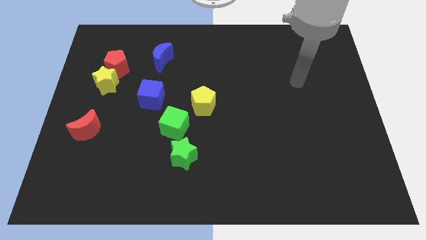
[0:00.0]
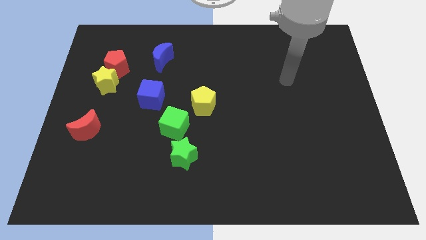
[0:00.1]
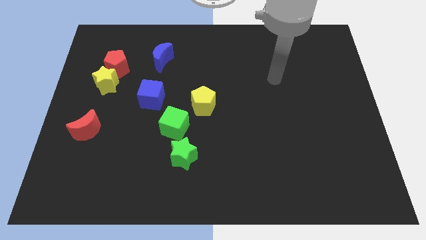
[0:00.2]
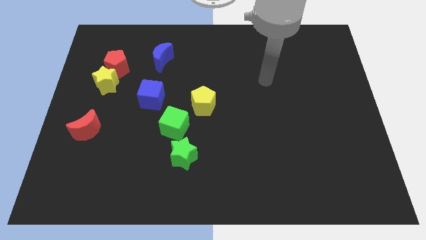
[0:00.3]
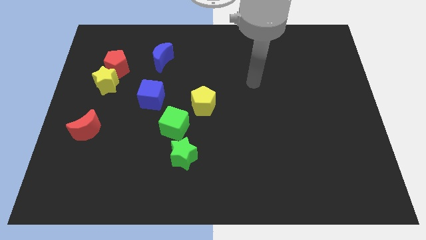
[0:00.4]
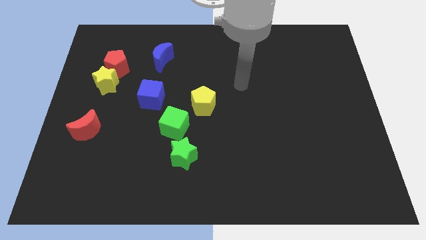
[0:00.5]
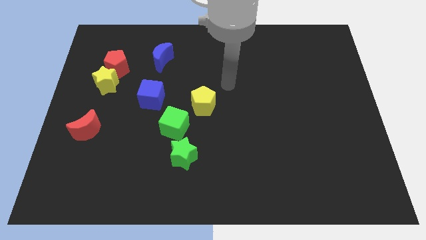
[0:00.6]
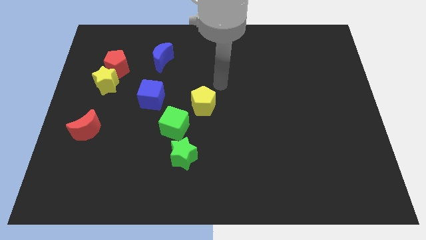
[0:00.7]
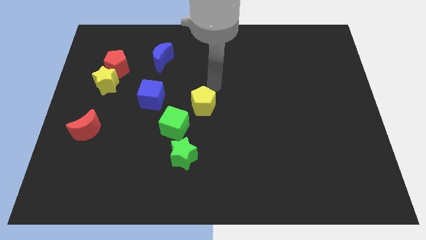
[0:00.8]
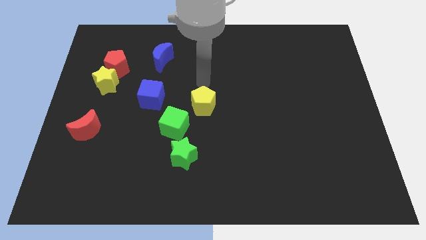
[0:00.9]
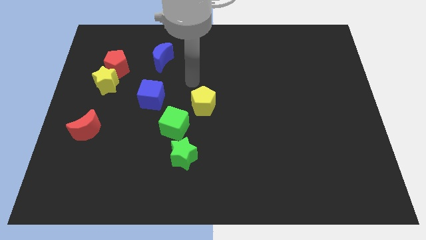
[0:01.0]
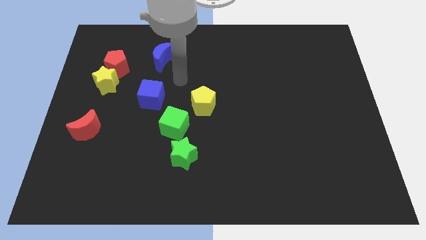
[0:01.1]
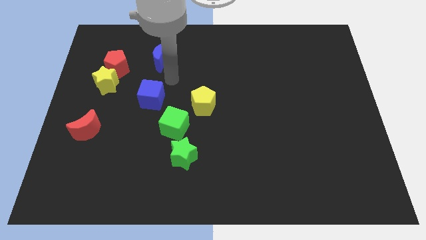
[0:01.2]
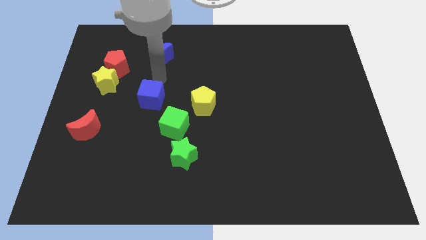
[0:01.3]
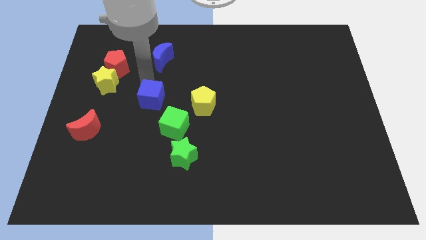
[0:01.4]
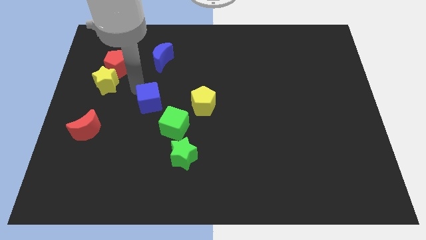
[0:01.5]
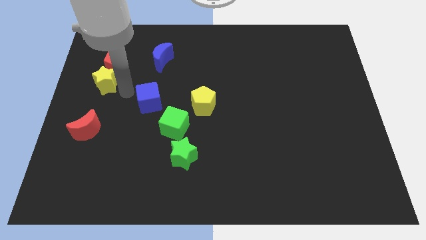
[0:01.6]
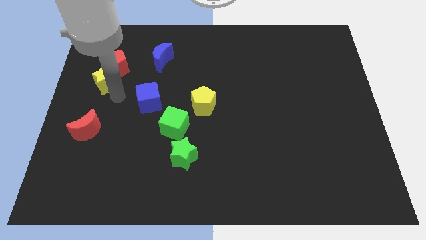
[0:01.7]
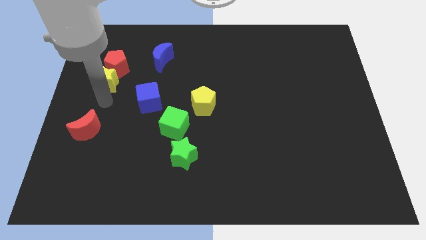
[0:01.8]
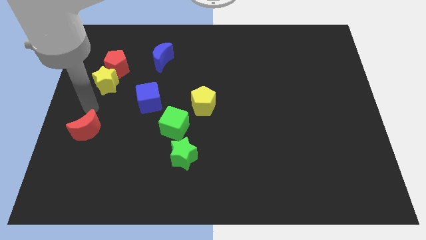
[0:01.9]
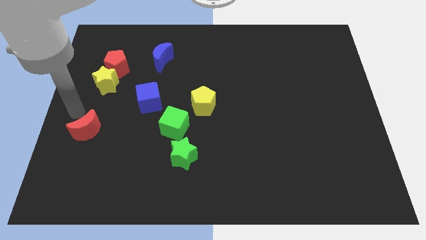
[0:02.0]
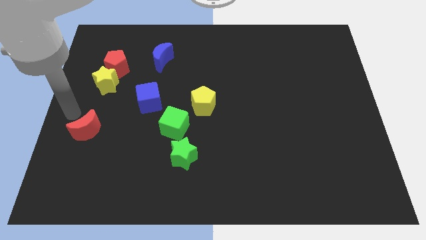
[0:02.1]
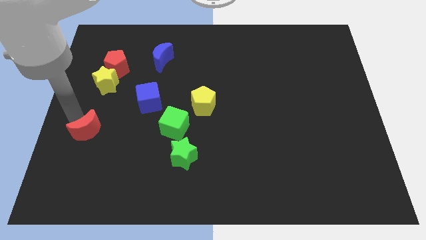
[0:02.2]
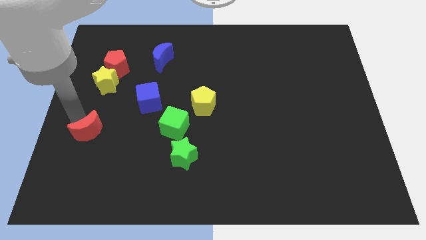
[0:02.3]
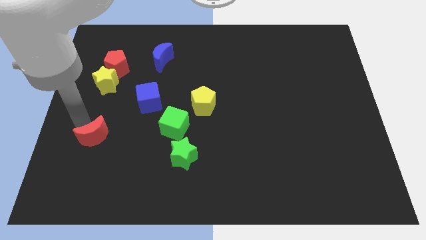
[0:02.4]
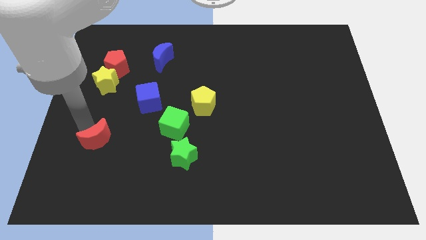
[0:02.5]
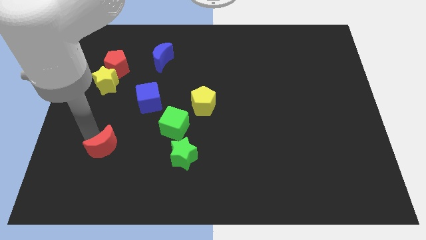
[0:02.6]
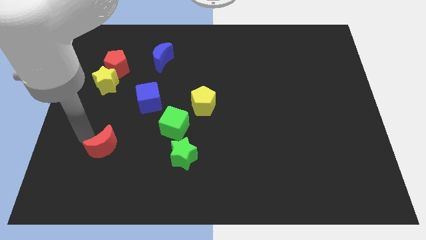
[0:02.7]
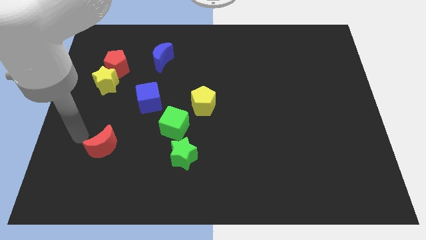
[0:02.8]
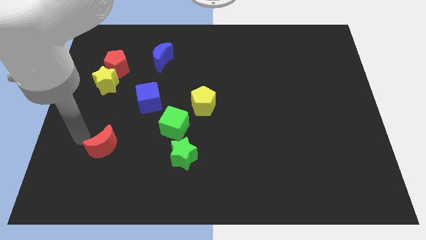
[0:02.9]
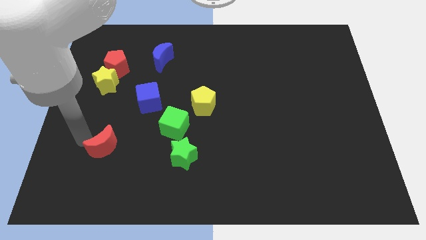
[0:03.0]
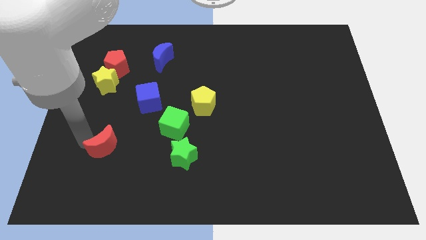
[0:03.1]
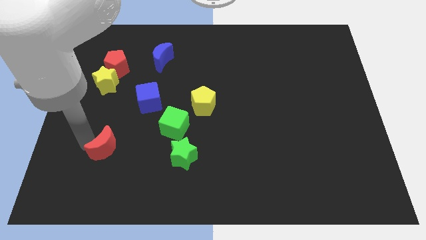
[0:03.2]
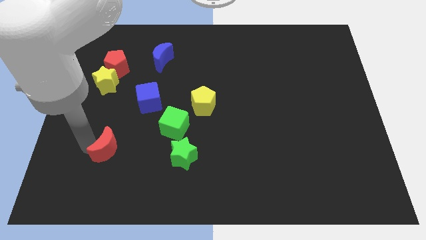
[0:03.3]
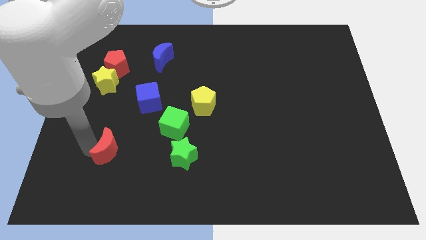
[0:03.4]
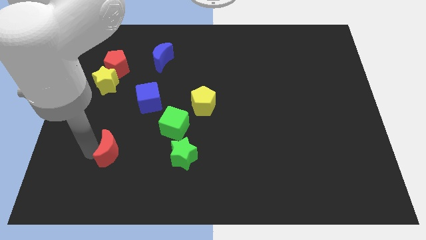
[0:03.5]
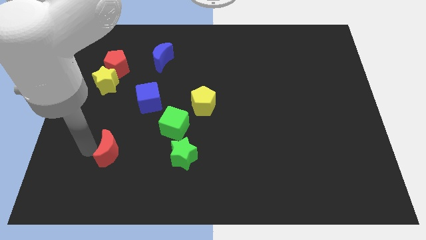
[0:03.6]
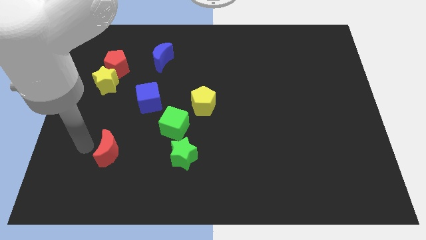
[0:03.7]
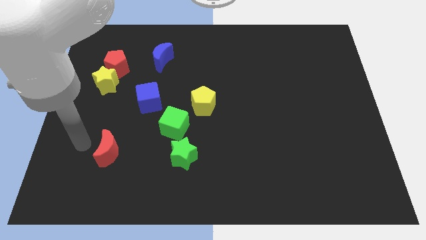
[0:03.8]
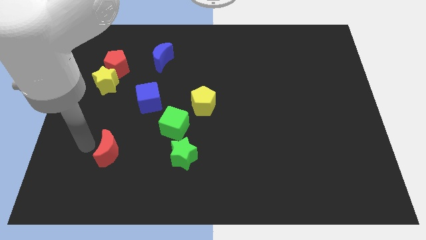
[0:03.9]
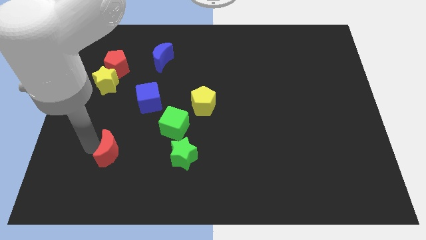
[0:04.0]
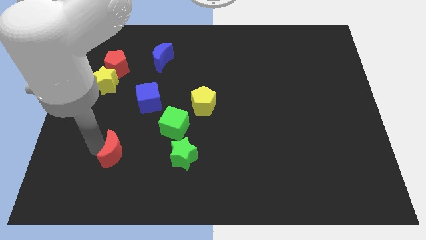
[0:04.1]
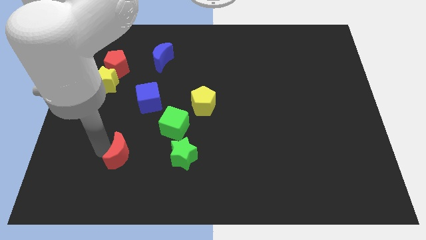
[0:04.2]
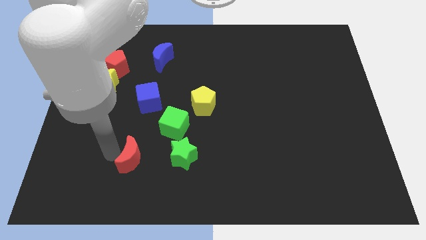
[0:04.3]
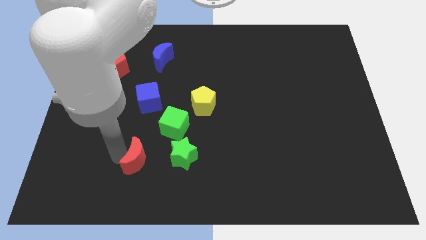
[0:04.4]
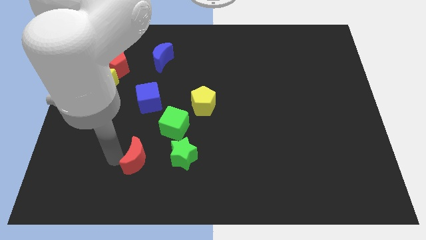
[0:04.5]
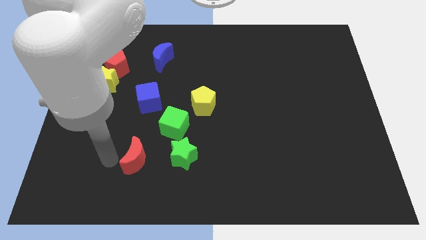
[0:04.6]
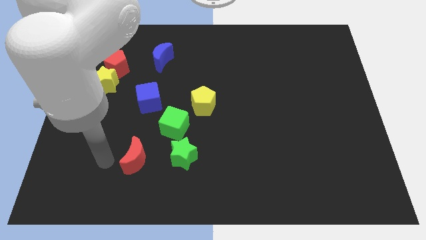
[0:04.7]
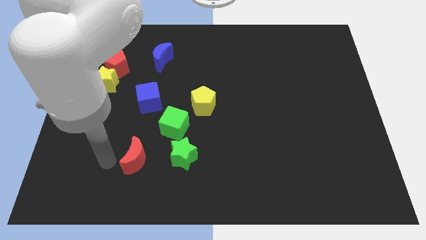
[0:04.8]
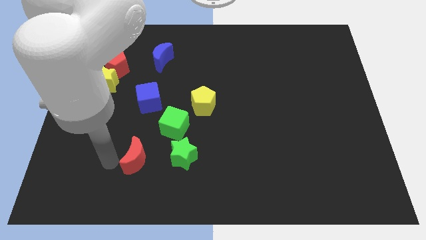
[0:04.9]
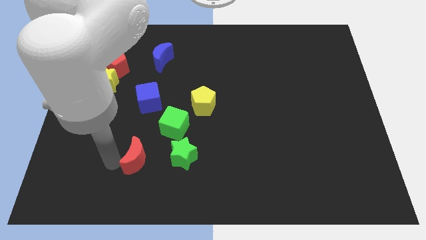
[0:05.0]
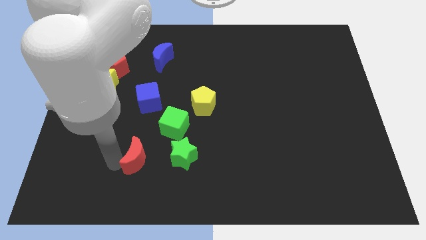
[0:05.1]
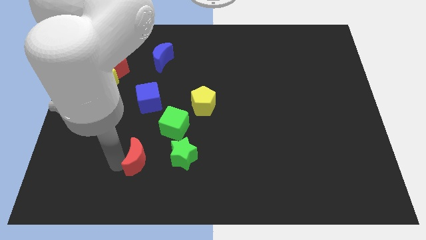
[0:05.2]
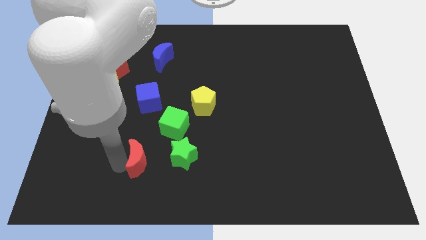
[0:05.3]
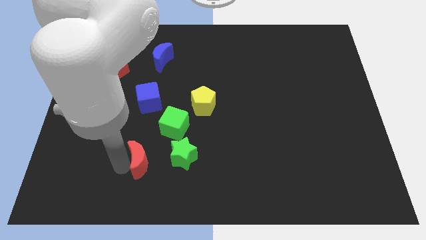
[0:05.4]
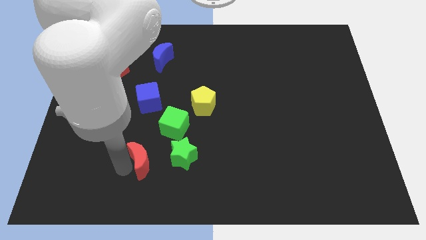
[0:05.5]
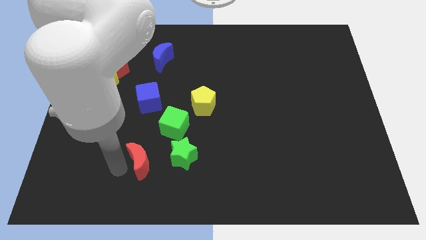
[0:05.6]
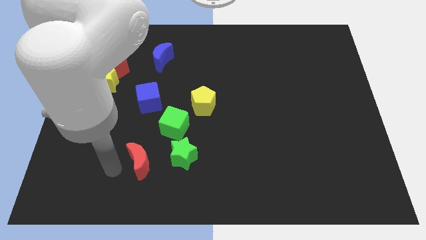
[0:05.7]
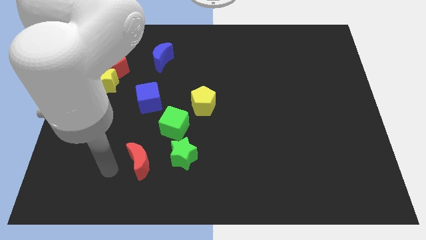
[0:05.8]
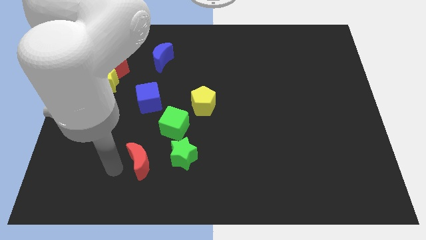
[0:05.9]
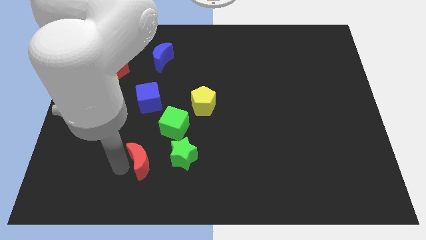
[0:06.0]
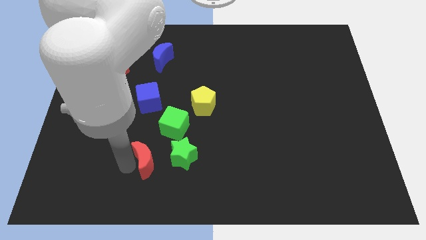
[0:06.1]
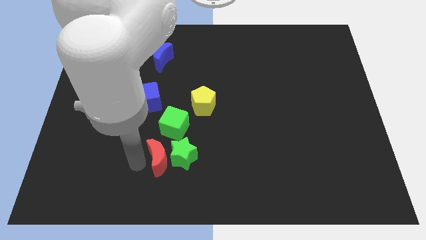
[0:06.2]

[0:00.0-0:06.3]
move the red moon towards the green star

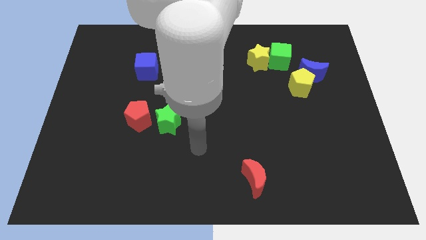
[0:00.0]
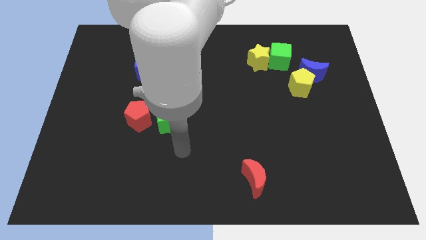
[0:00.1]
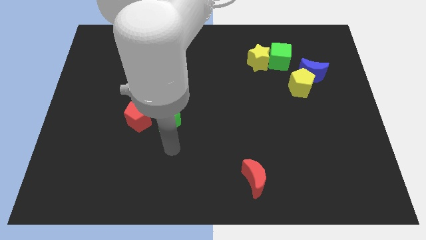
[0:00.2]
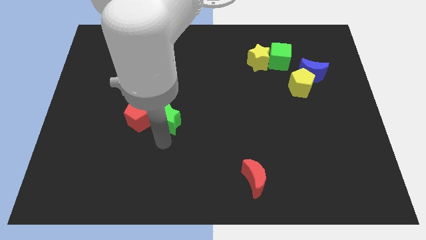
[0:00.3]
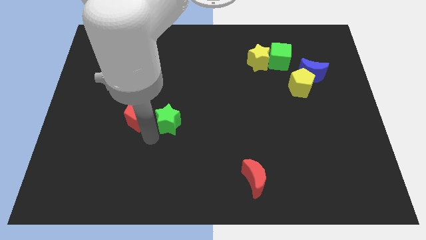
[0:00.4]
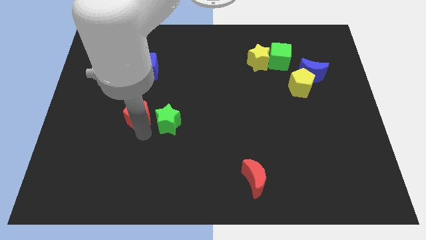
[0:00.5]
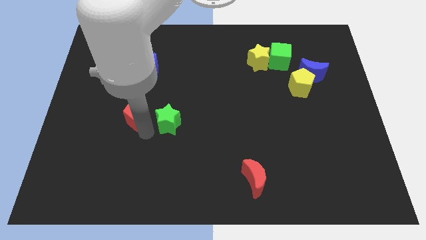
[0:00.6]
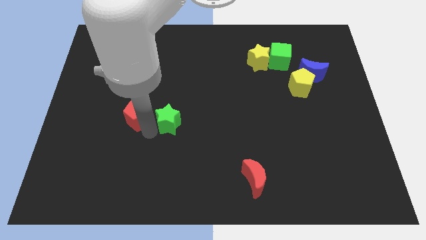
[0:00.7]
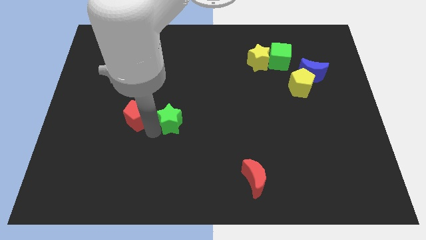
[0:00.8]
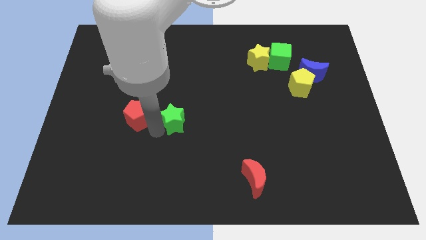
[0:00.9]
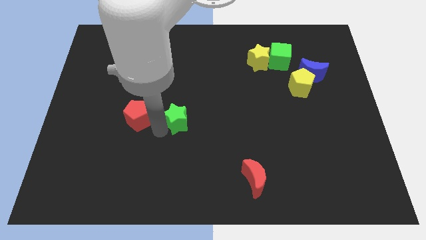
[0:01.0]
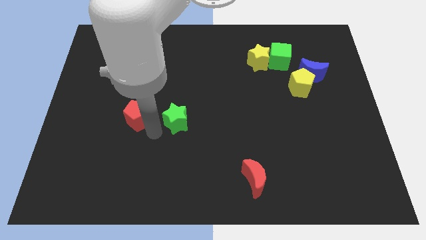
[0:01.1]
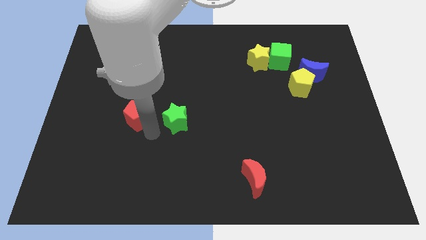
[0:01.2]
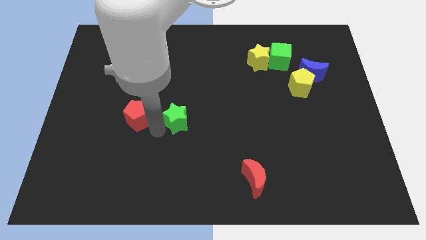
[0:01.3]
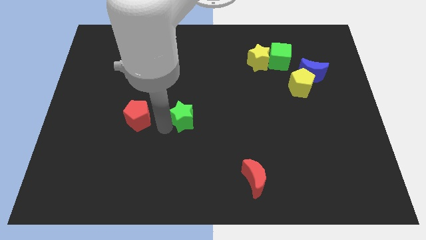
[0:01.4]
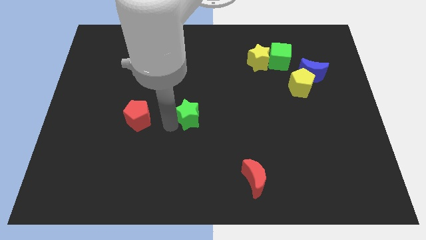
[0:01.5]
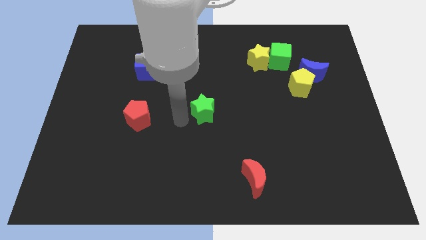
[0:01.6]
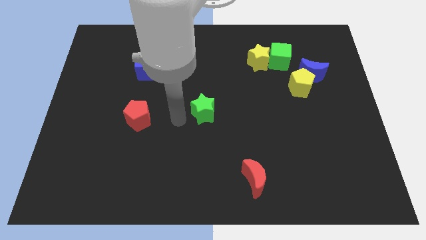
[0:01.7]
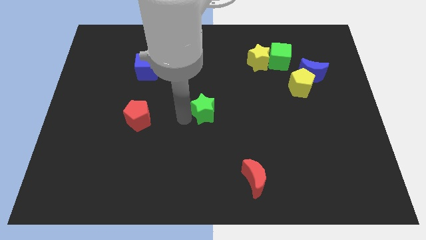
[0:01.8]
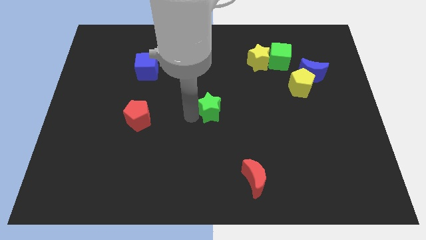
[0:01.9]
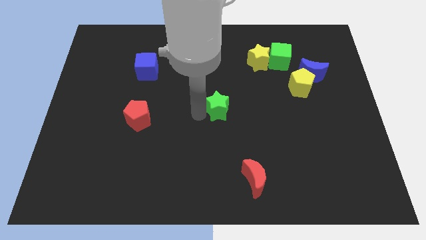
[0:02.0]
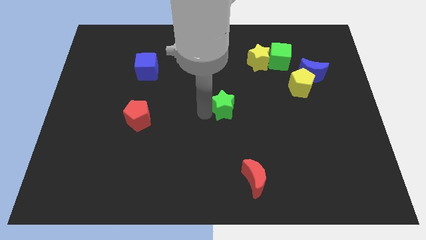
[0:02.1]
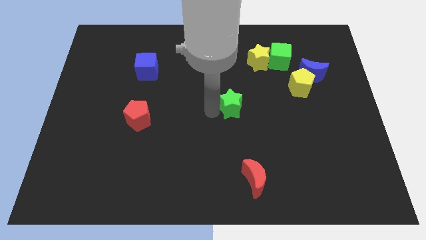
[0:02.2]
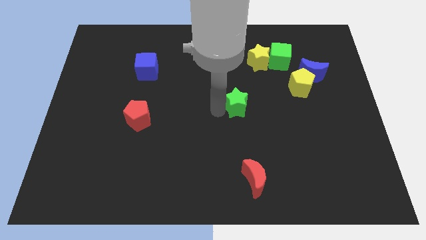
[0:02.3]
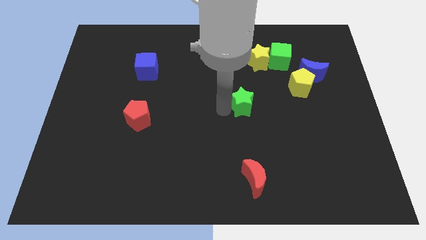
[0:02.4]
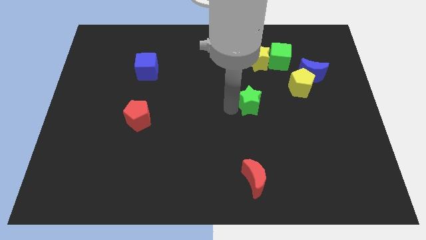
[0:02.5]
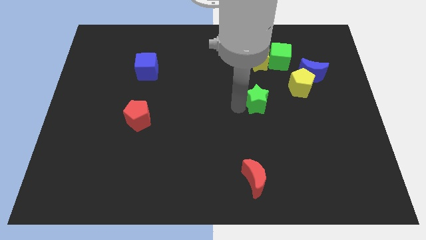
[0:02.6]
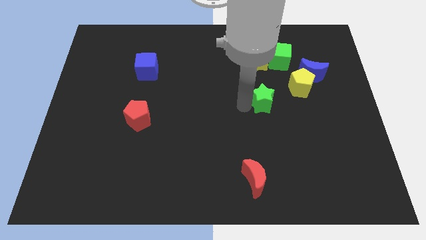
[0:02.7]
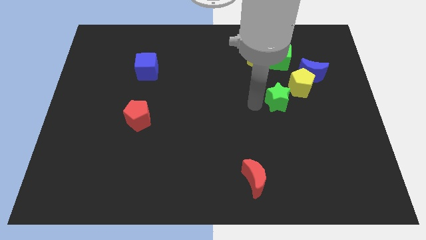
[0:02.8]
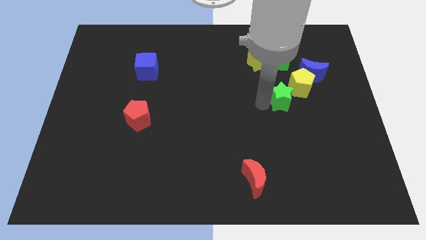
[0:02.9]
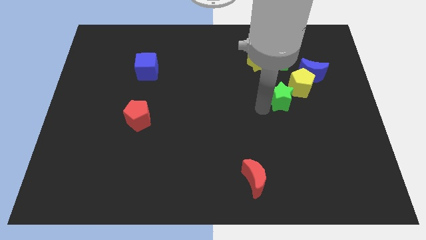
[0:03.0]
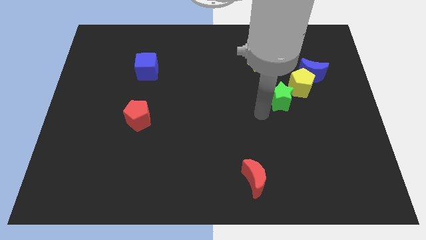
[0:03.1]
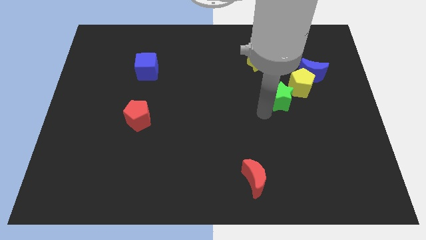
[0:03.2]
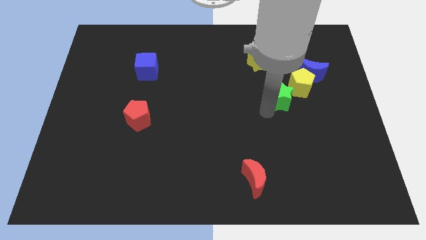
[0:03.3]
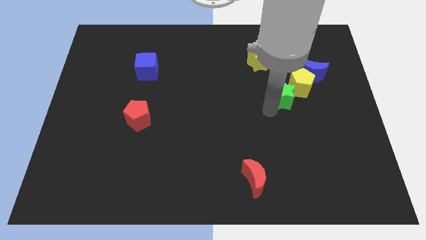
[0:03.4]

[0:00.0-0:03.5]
put the green star towards the yellow pentagon
